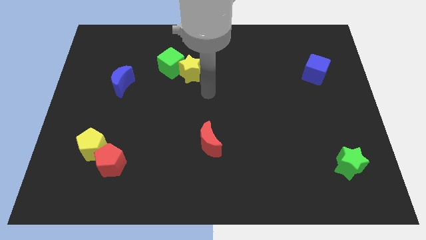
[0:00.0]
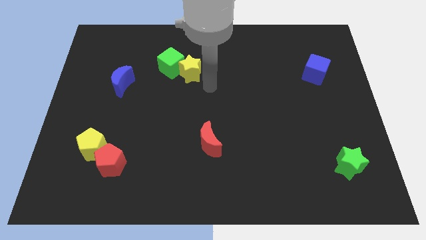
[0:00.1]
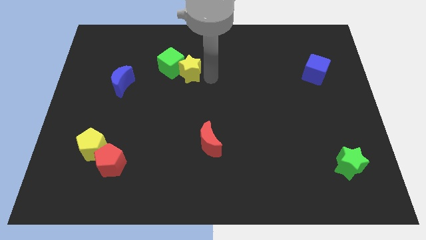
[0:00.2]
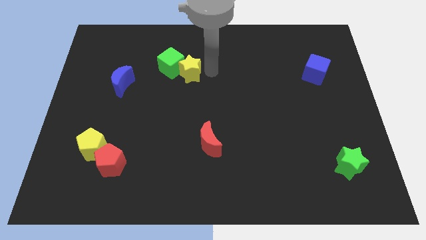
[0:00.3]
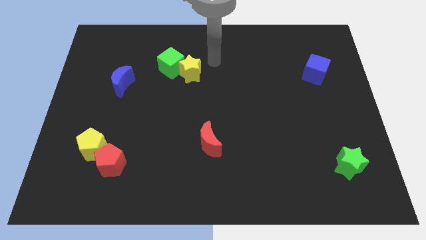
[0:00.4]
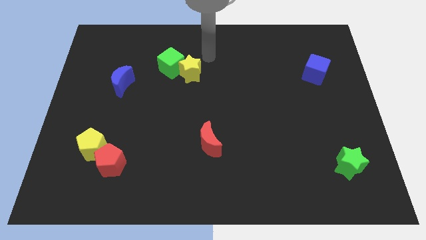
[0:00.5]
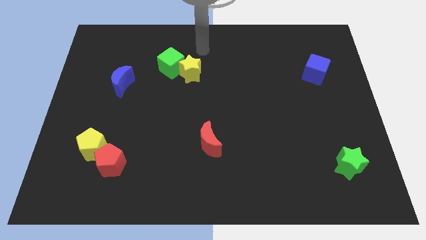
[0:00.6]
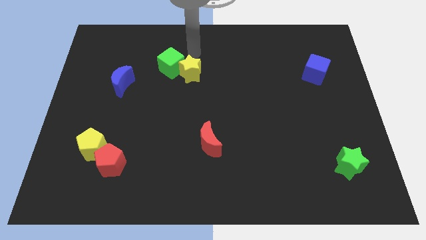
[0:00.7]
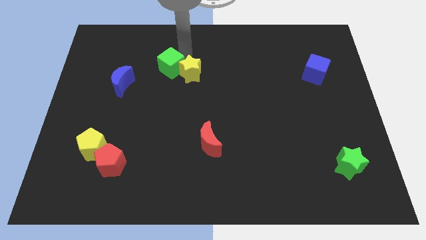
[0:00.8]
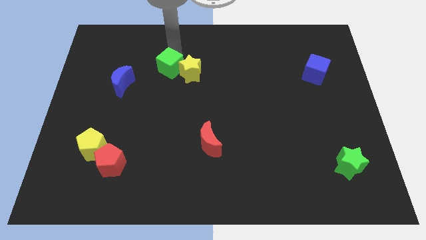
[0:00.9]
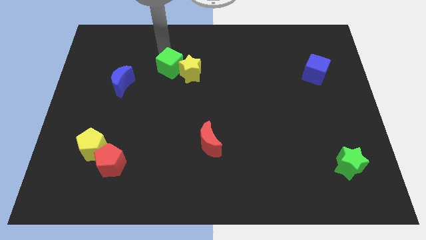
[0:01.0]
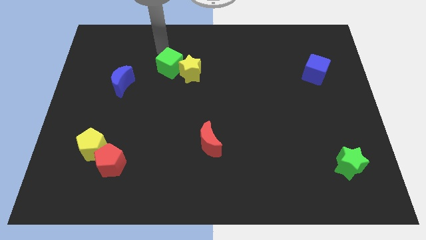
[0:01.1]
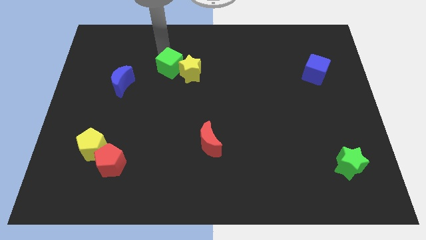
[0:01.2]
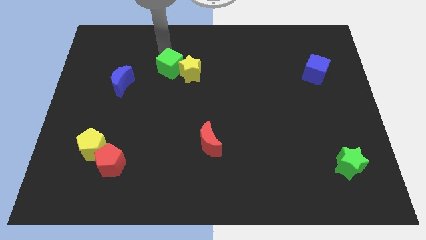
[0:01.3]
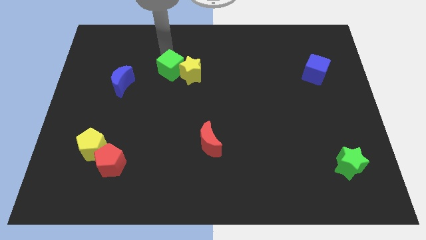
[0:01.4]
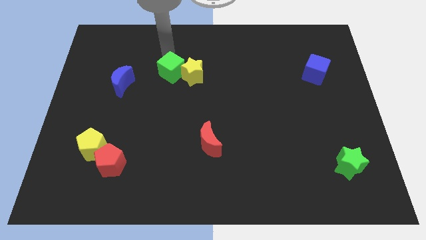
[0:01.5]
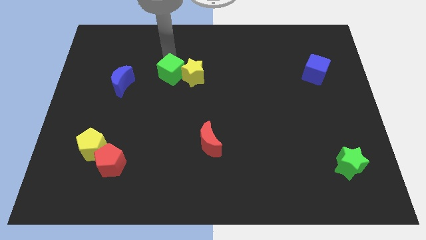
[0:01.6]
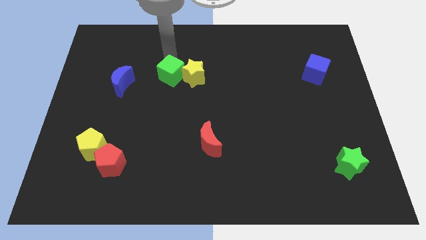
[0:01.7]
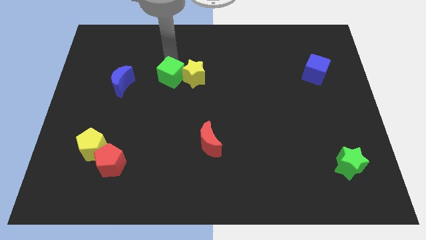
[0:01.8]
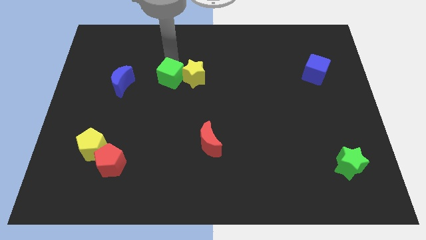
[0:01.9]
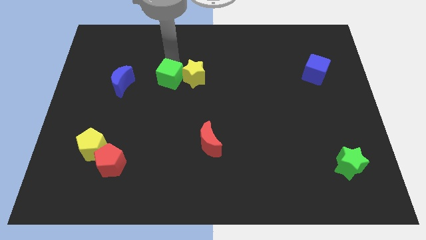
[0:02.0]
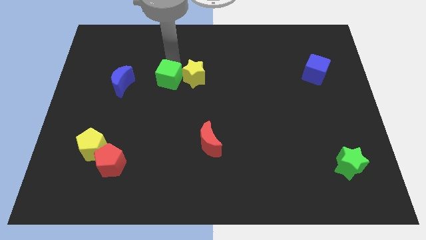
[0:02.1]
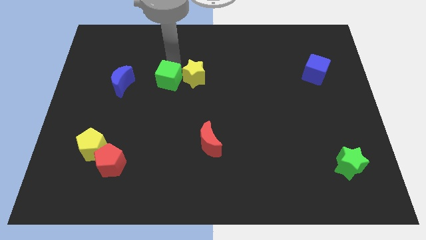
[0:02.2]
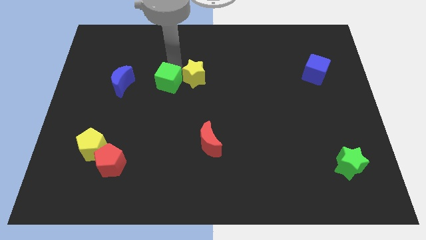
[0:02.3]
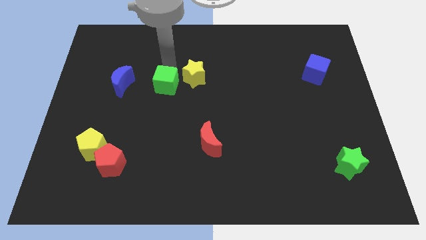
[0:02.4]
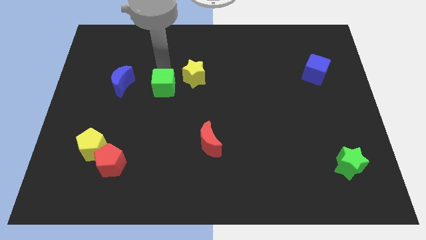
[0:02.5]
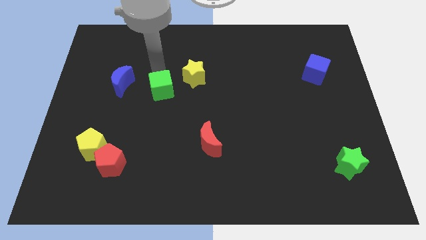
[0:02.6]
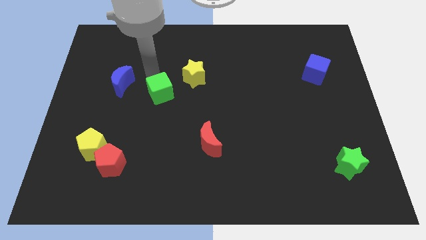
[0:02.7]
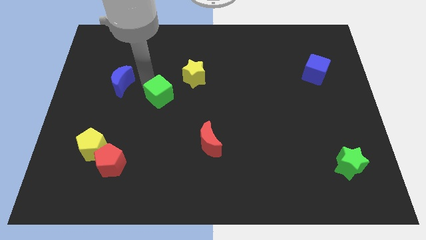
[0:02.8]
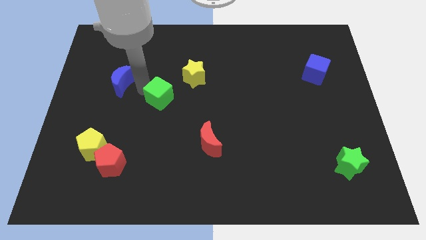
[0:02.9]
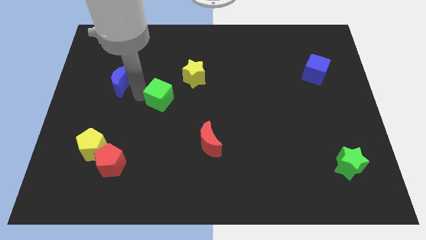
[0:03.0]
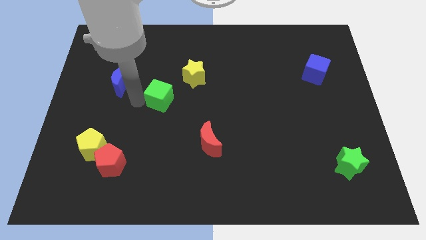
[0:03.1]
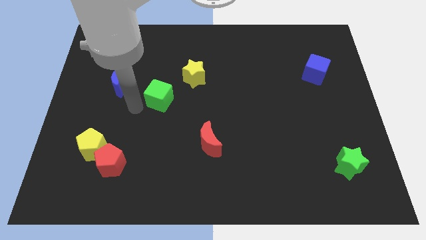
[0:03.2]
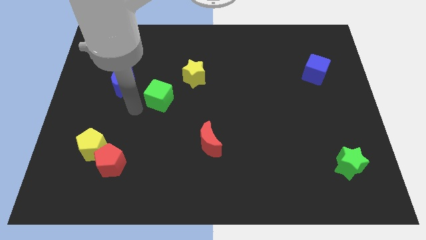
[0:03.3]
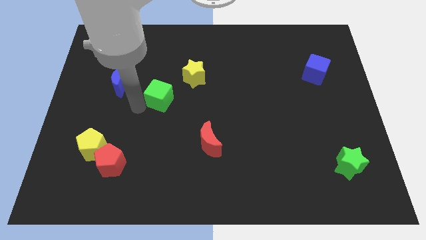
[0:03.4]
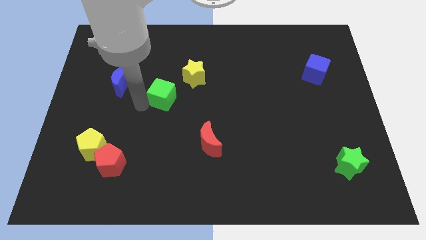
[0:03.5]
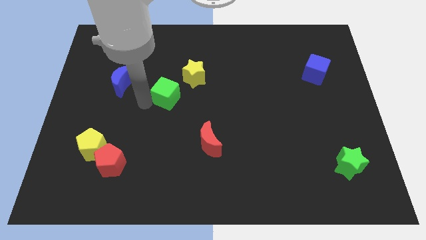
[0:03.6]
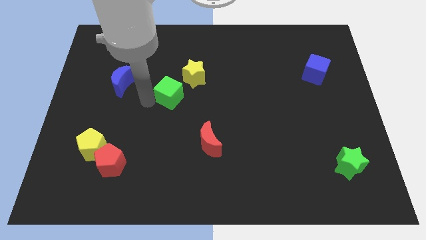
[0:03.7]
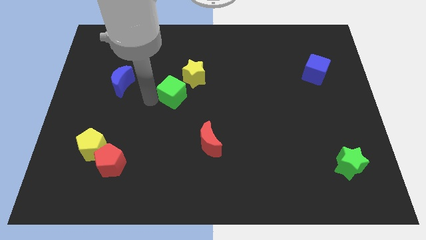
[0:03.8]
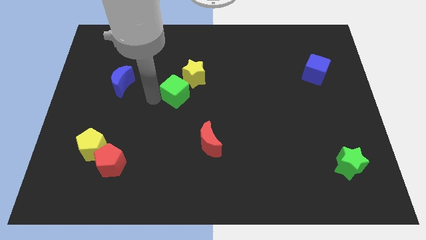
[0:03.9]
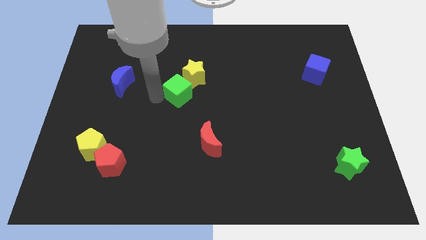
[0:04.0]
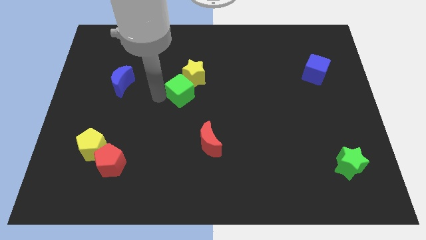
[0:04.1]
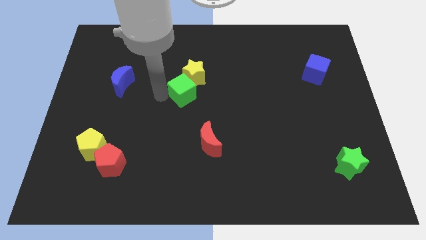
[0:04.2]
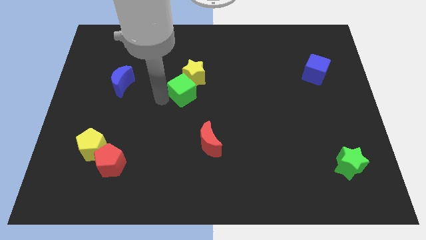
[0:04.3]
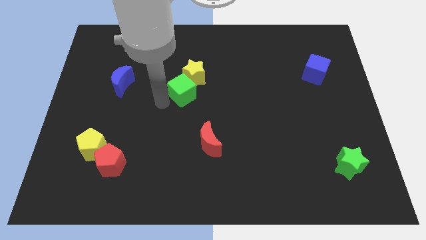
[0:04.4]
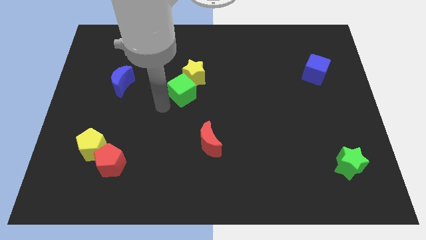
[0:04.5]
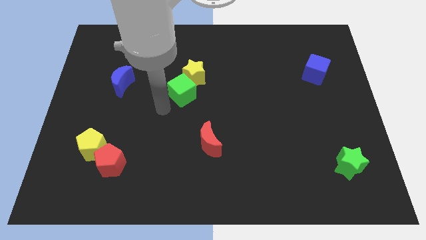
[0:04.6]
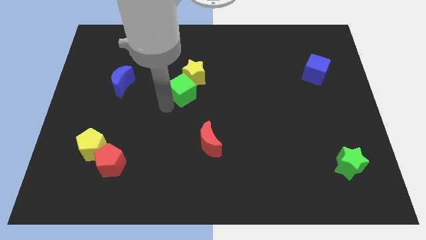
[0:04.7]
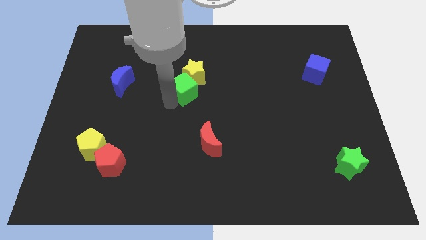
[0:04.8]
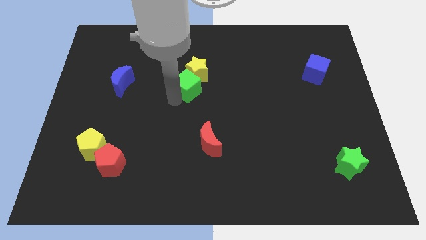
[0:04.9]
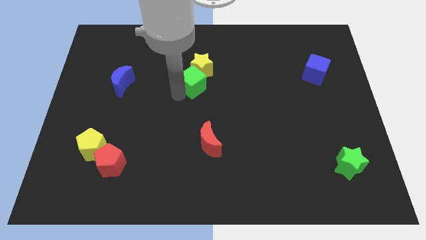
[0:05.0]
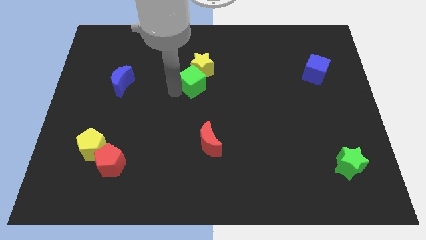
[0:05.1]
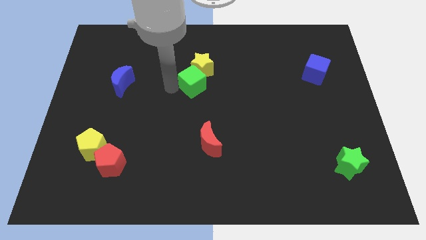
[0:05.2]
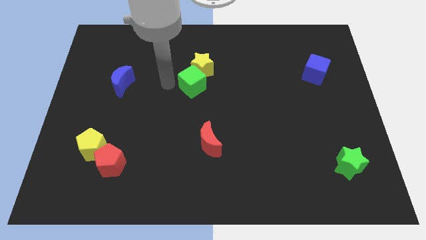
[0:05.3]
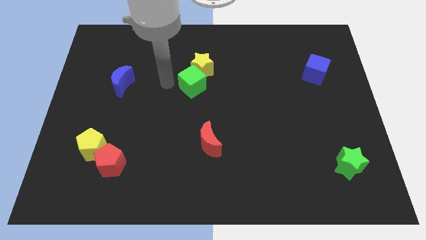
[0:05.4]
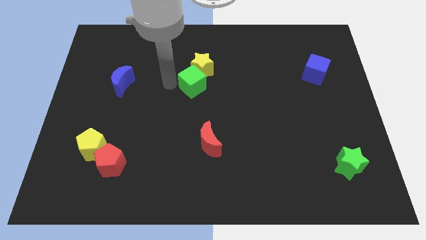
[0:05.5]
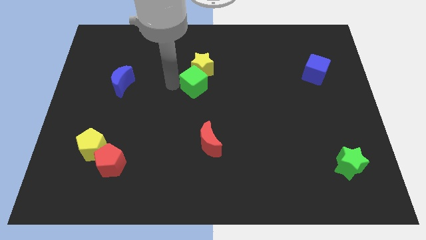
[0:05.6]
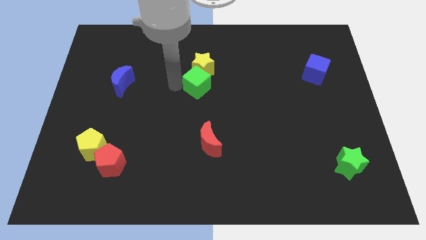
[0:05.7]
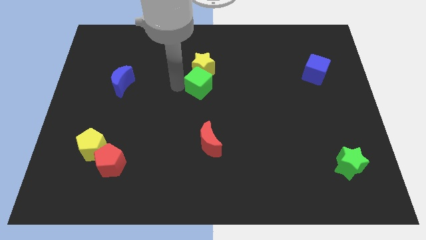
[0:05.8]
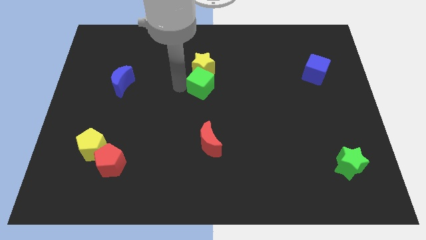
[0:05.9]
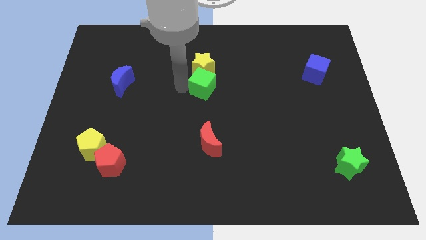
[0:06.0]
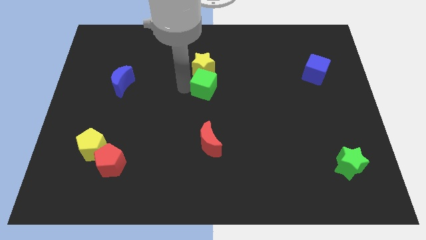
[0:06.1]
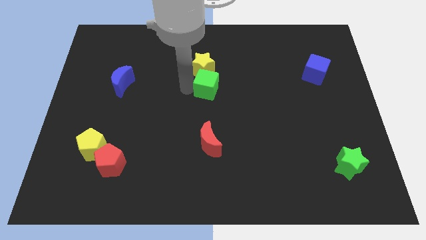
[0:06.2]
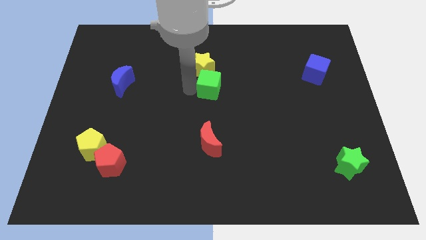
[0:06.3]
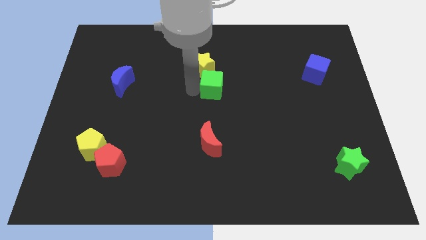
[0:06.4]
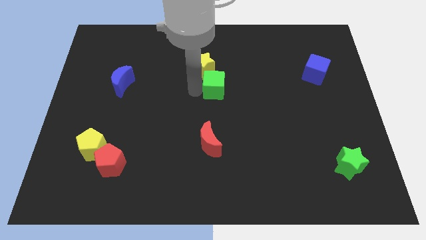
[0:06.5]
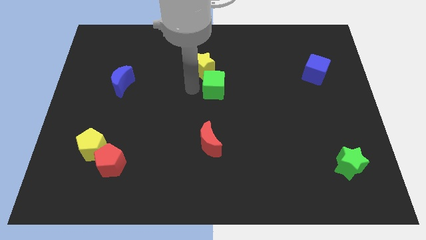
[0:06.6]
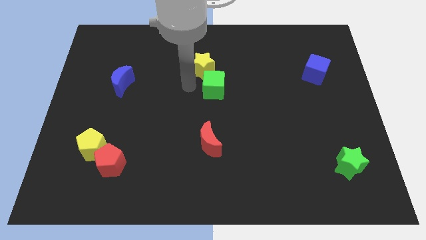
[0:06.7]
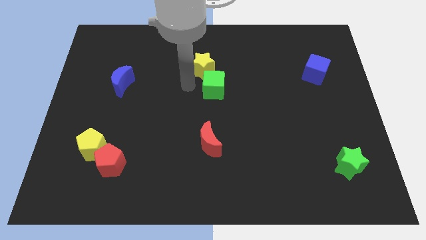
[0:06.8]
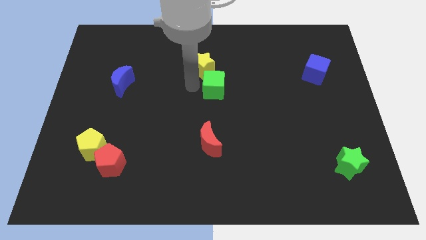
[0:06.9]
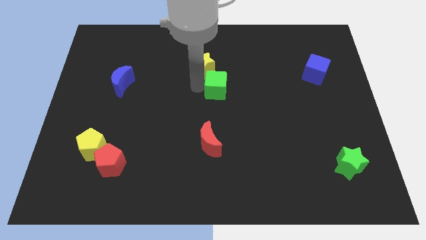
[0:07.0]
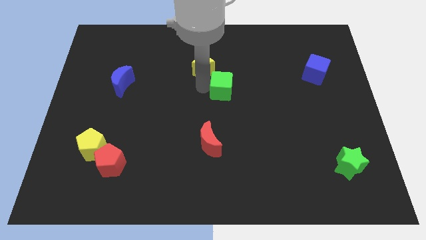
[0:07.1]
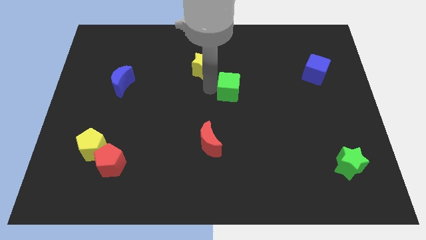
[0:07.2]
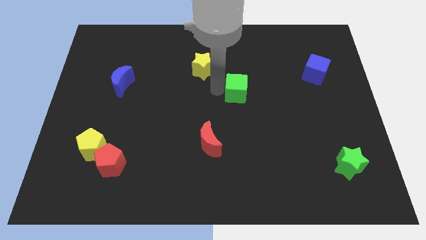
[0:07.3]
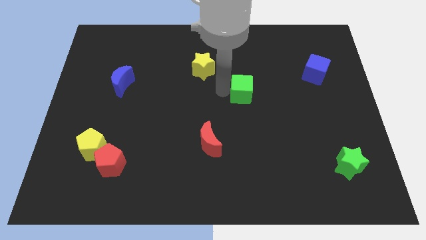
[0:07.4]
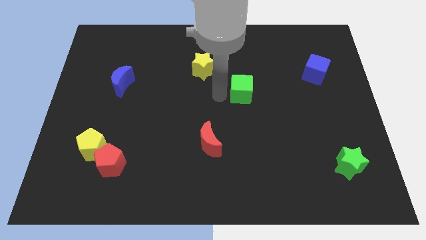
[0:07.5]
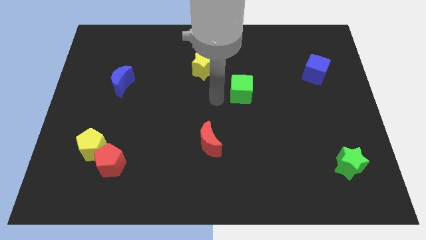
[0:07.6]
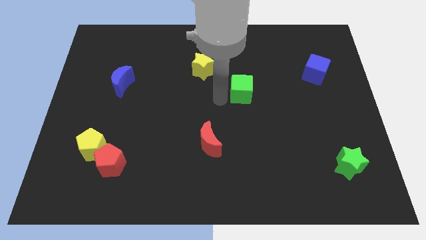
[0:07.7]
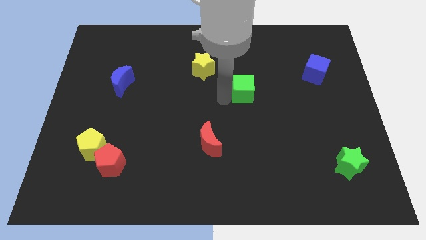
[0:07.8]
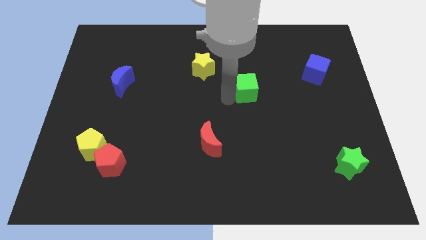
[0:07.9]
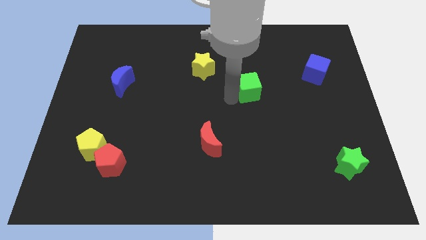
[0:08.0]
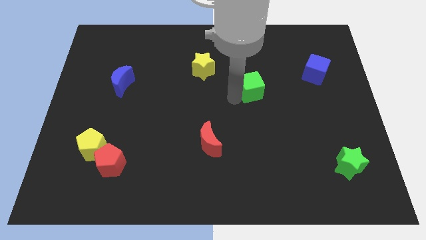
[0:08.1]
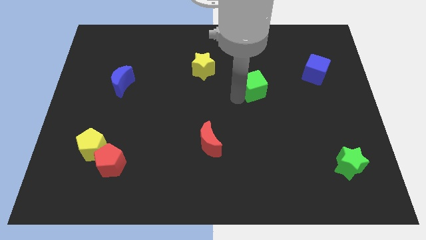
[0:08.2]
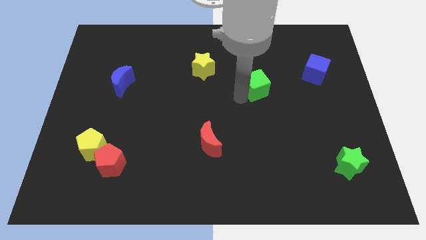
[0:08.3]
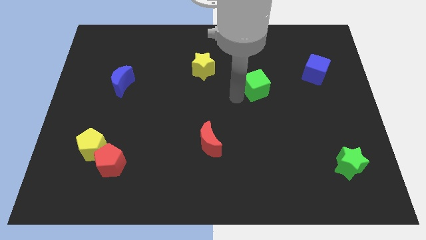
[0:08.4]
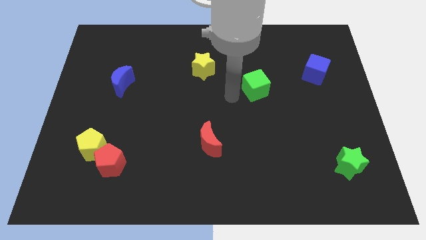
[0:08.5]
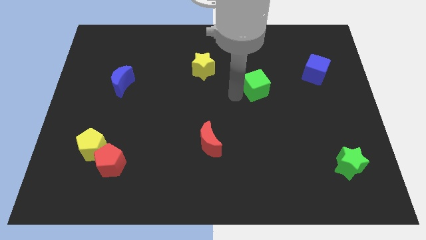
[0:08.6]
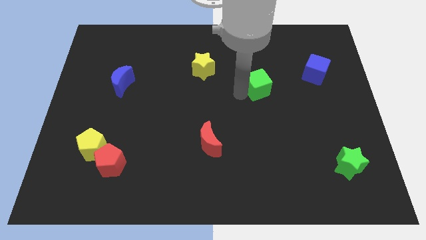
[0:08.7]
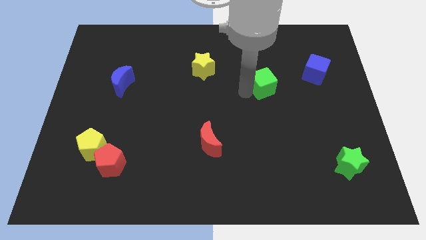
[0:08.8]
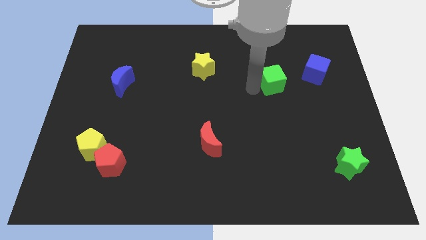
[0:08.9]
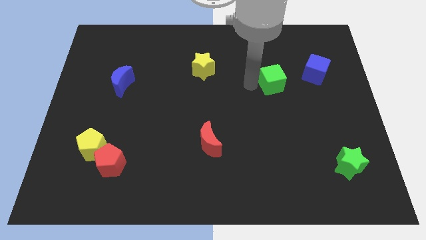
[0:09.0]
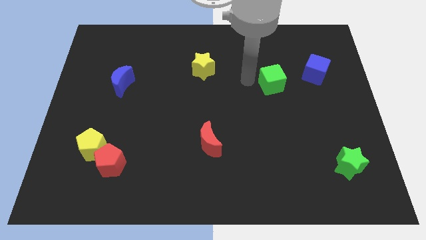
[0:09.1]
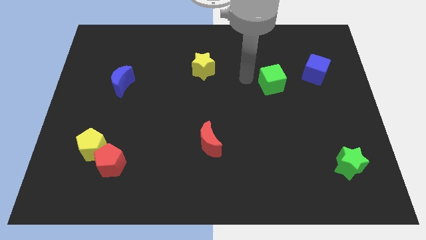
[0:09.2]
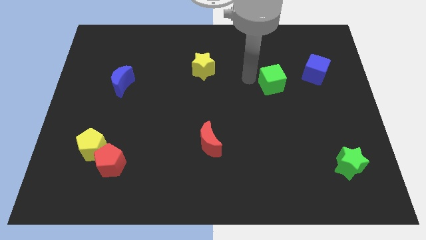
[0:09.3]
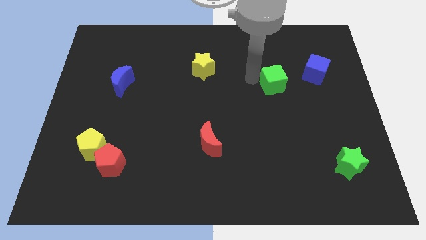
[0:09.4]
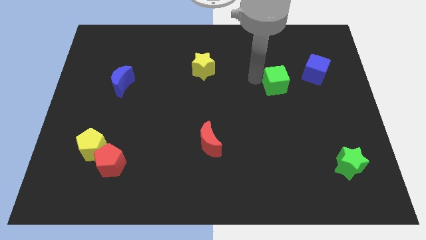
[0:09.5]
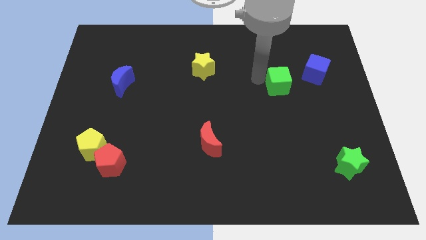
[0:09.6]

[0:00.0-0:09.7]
put the green cube to the bottom left side of the blue cube
